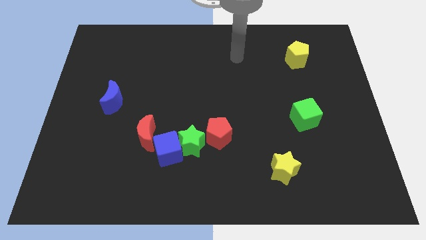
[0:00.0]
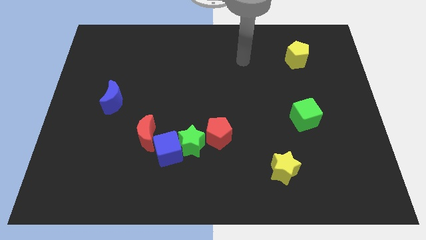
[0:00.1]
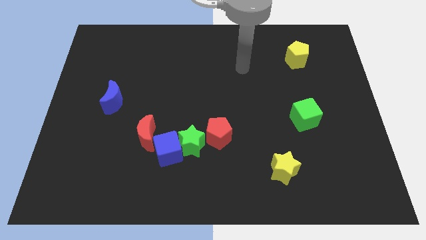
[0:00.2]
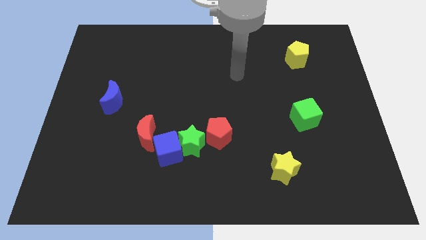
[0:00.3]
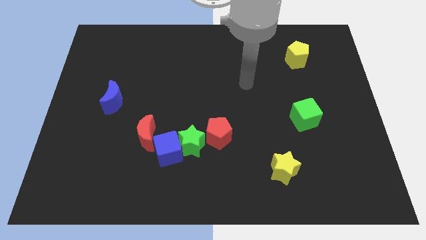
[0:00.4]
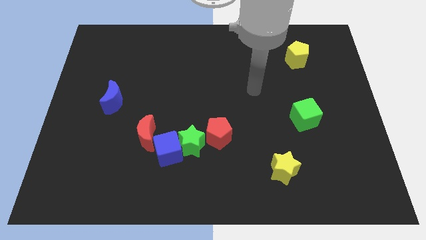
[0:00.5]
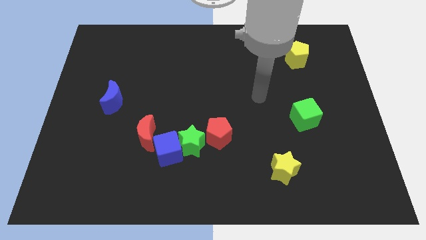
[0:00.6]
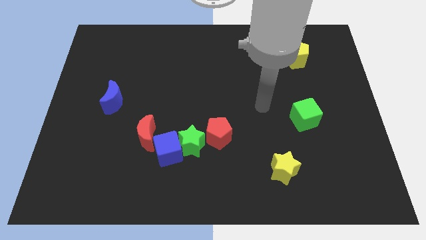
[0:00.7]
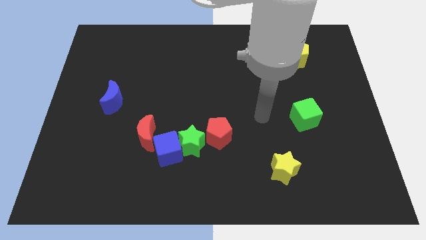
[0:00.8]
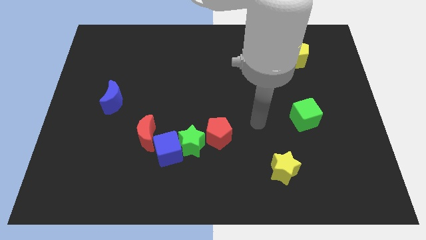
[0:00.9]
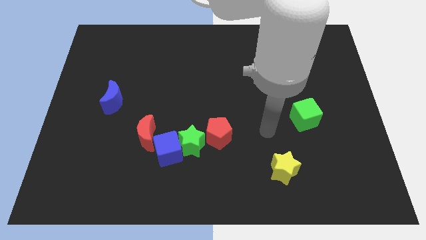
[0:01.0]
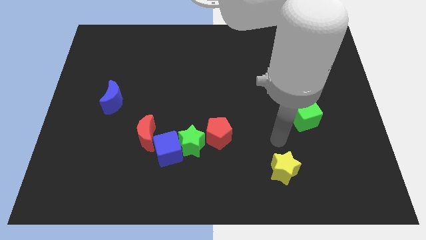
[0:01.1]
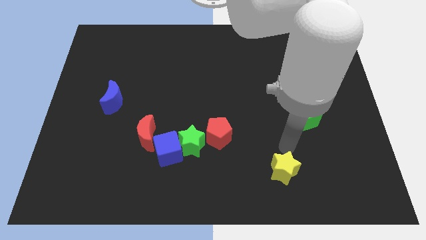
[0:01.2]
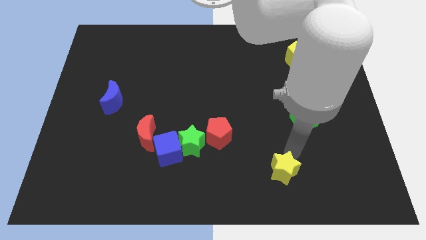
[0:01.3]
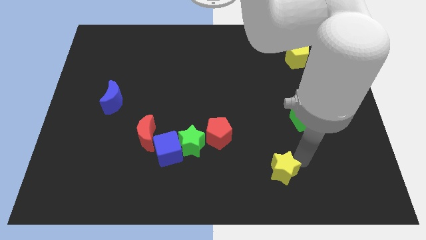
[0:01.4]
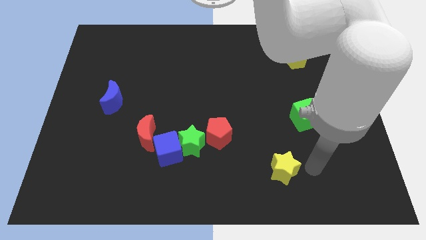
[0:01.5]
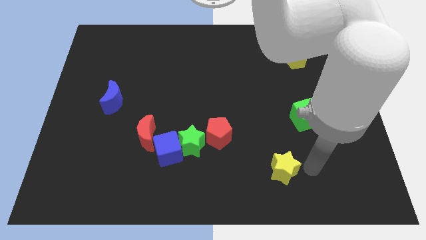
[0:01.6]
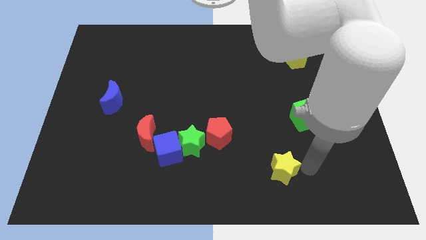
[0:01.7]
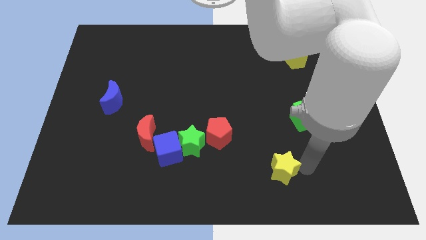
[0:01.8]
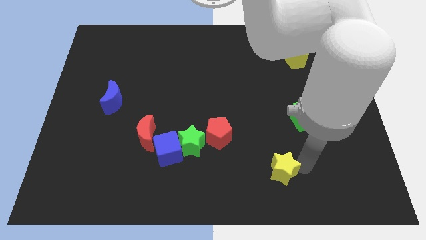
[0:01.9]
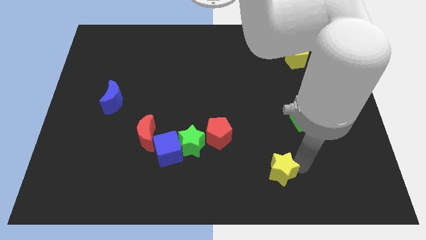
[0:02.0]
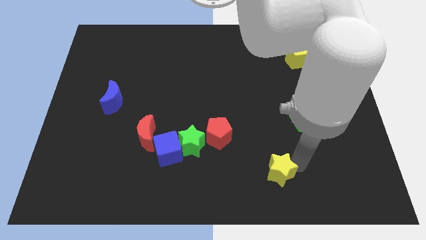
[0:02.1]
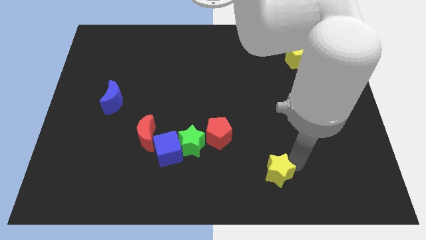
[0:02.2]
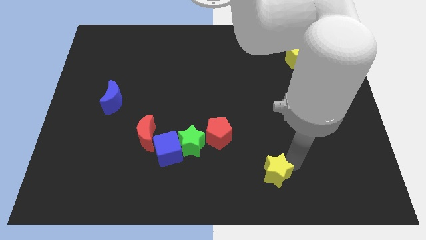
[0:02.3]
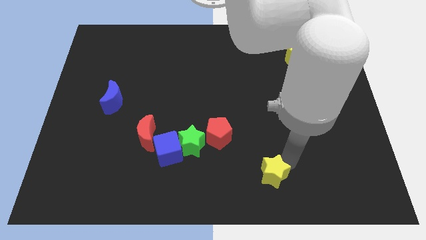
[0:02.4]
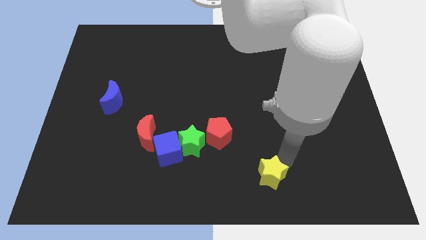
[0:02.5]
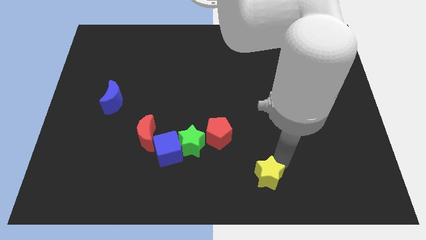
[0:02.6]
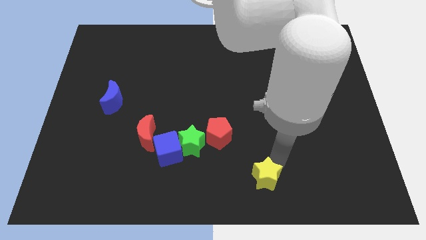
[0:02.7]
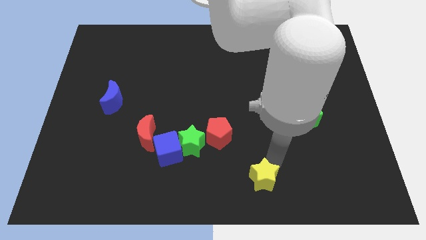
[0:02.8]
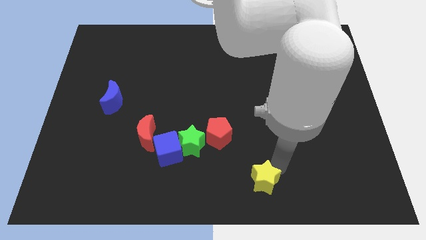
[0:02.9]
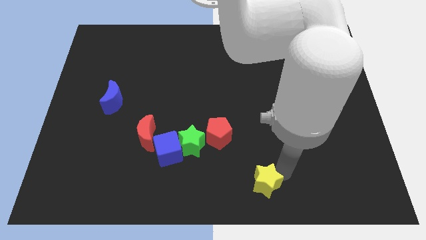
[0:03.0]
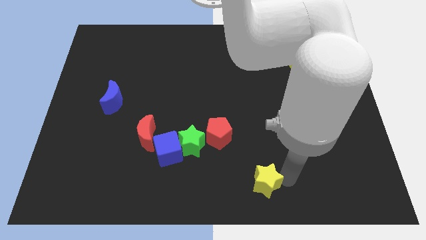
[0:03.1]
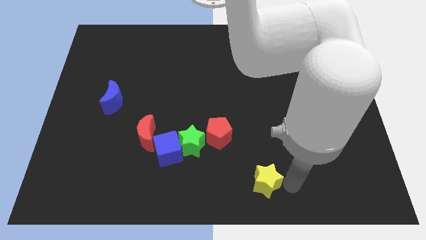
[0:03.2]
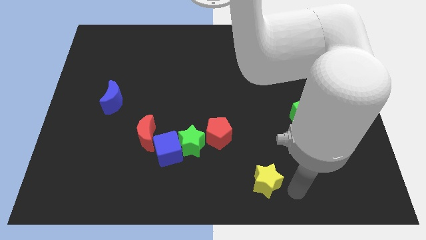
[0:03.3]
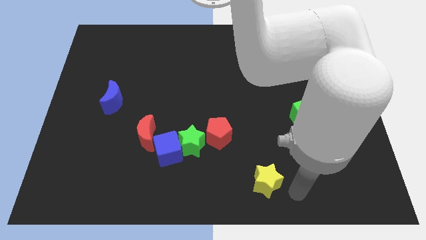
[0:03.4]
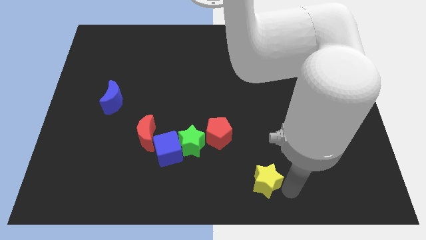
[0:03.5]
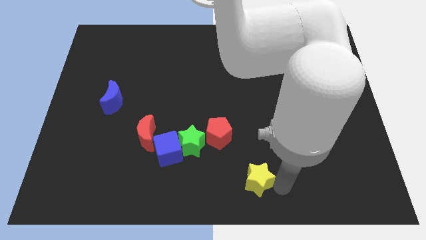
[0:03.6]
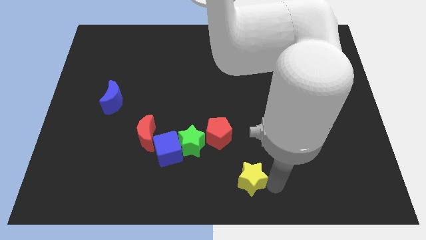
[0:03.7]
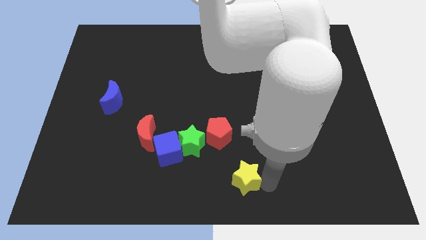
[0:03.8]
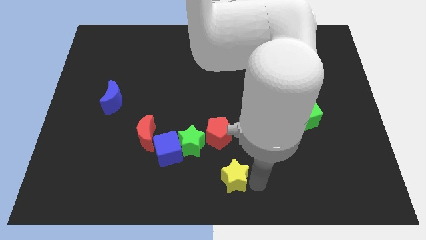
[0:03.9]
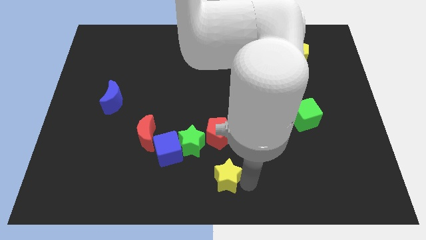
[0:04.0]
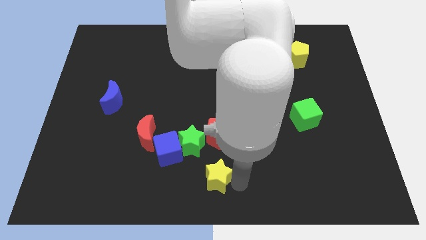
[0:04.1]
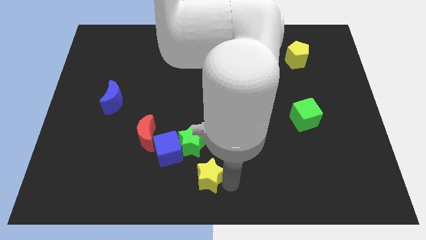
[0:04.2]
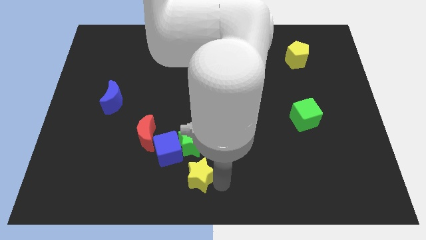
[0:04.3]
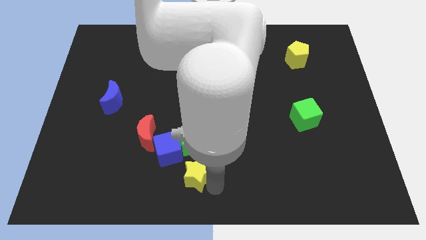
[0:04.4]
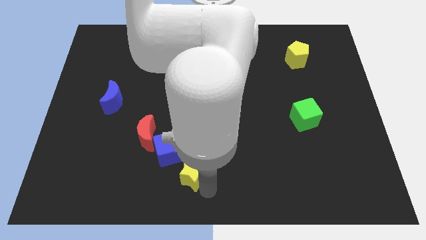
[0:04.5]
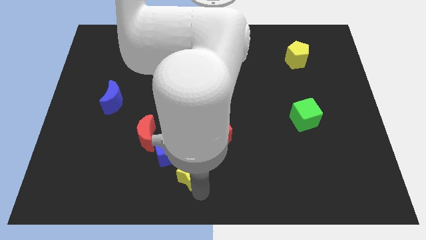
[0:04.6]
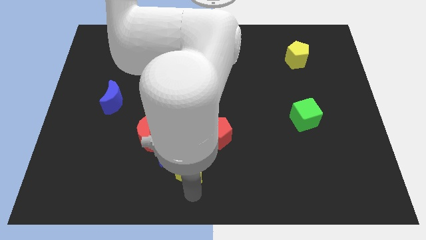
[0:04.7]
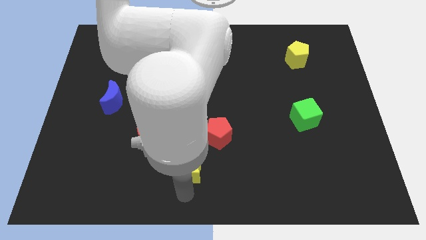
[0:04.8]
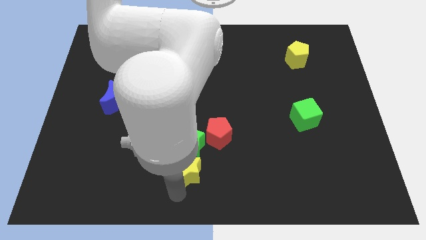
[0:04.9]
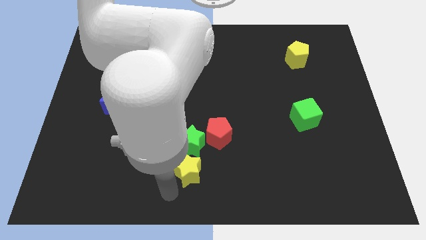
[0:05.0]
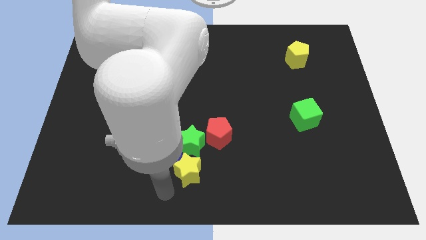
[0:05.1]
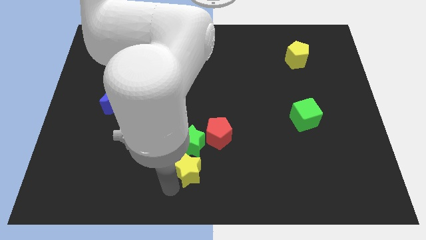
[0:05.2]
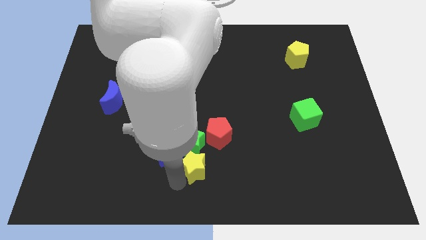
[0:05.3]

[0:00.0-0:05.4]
slide the yellow star to the right of the blue cube

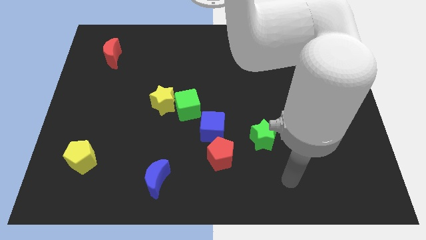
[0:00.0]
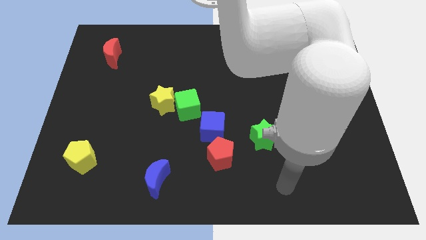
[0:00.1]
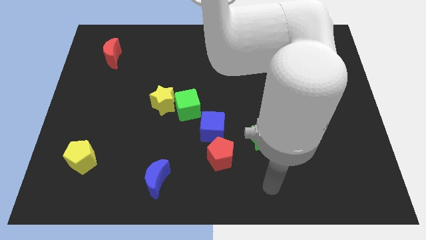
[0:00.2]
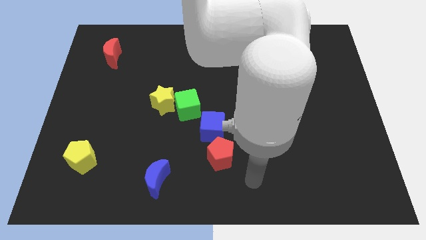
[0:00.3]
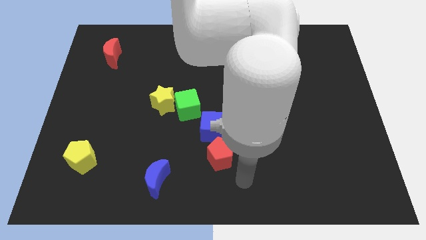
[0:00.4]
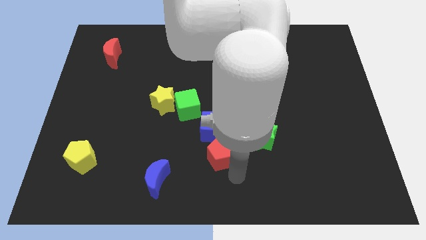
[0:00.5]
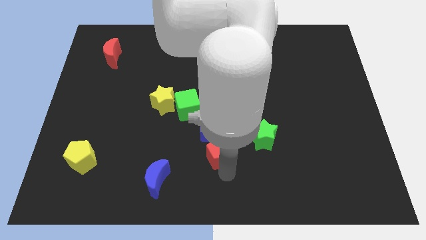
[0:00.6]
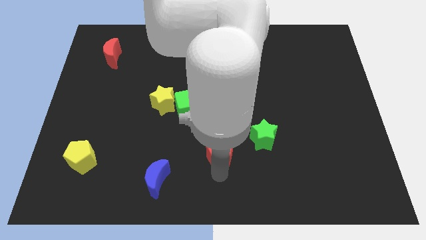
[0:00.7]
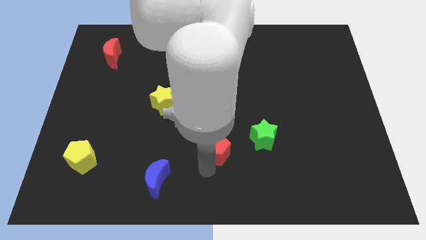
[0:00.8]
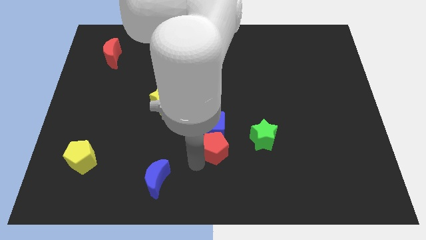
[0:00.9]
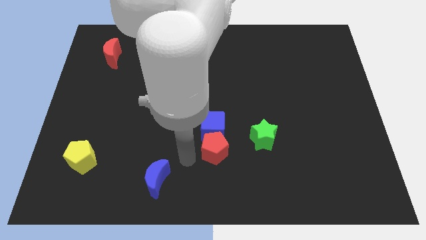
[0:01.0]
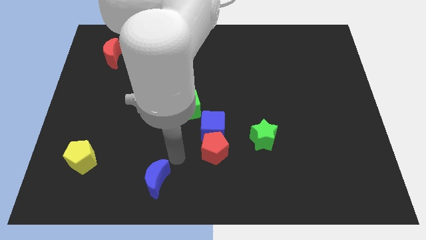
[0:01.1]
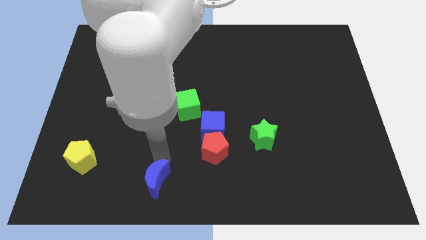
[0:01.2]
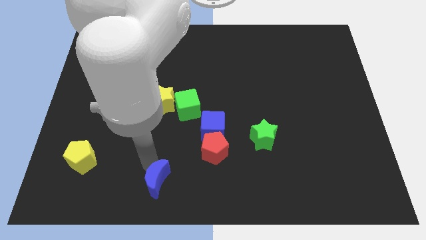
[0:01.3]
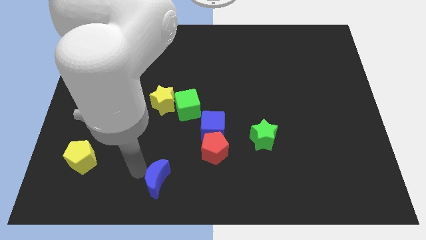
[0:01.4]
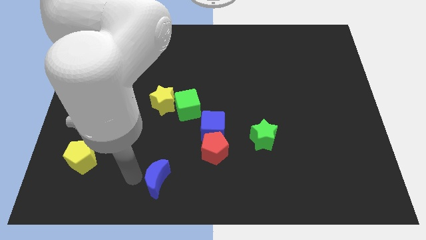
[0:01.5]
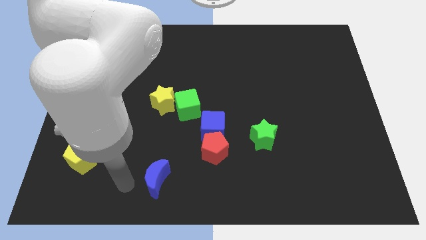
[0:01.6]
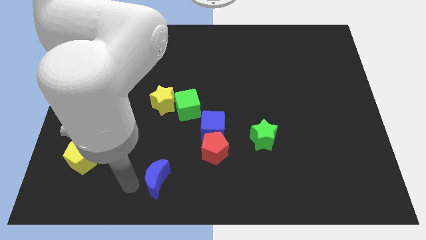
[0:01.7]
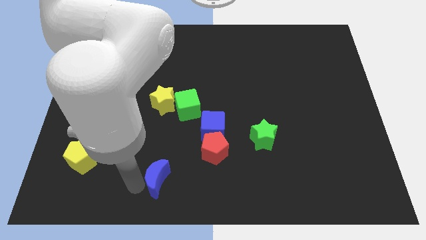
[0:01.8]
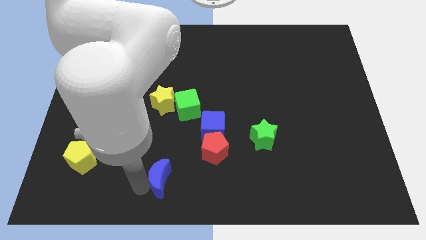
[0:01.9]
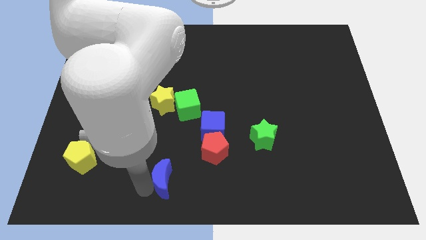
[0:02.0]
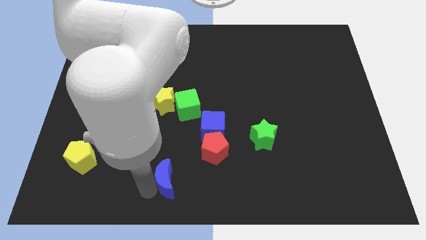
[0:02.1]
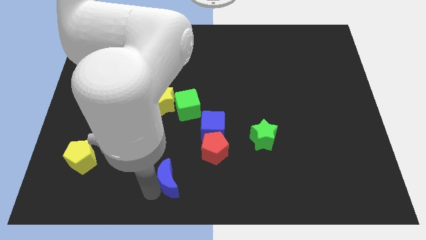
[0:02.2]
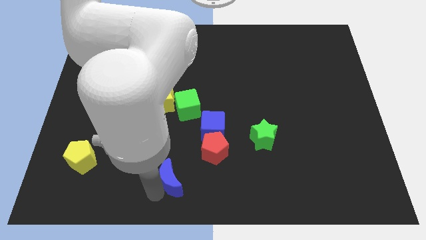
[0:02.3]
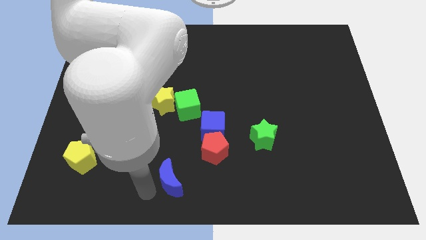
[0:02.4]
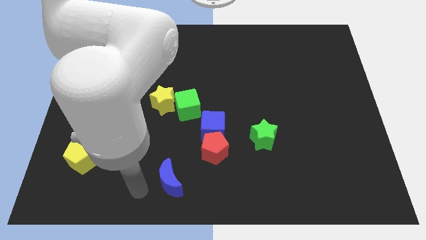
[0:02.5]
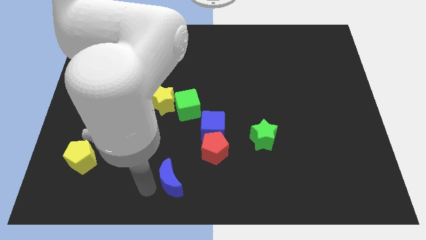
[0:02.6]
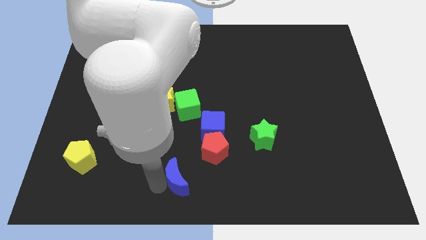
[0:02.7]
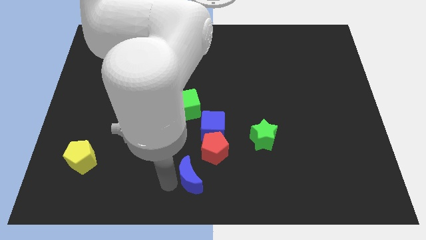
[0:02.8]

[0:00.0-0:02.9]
move the blue moon to the bottom side of the blue cube
